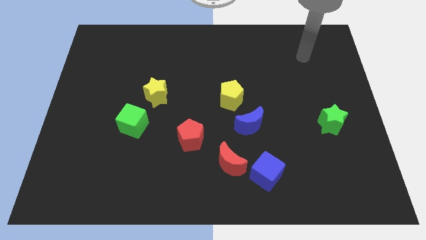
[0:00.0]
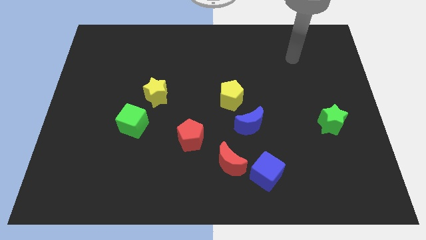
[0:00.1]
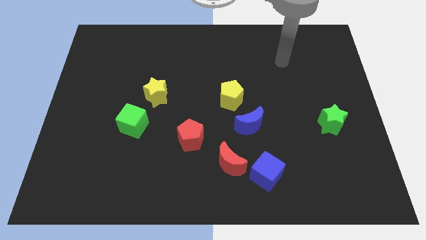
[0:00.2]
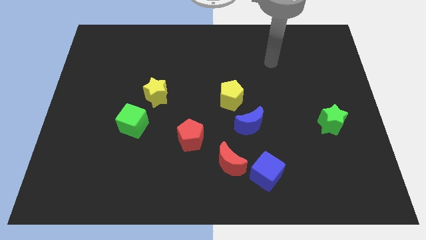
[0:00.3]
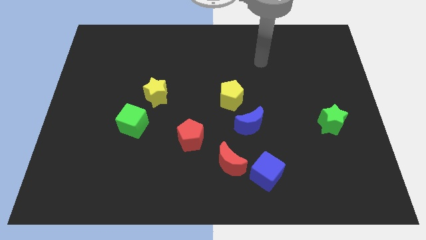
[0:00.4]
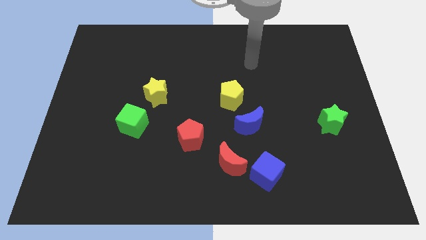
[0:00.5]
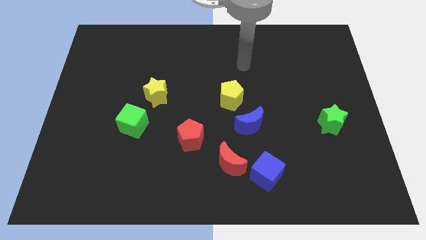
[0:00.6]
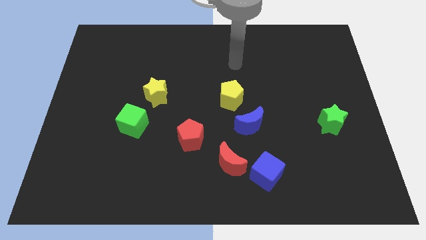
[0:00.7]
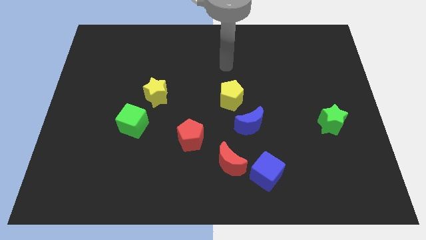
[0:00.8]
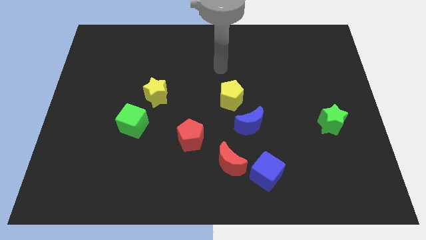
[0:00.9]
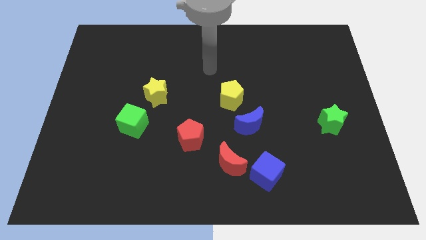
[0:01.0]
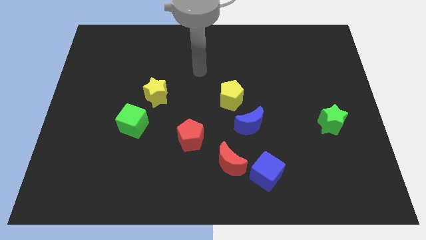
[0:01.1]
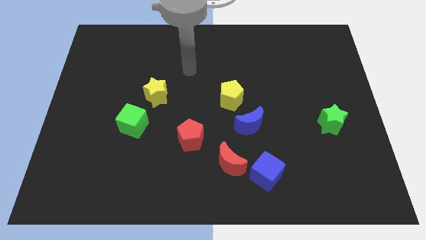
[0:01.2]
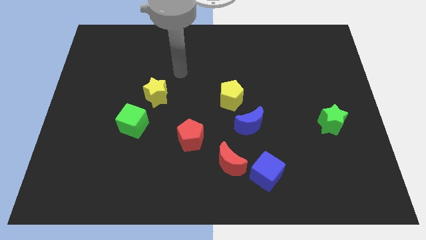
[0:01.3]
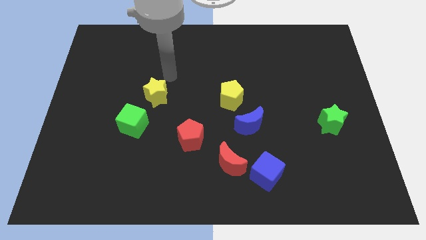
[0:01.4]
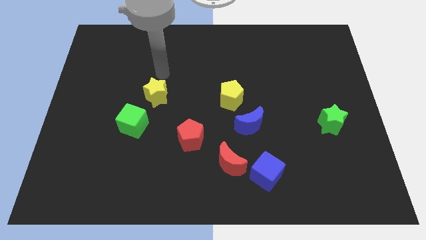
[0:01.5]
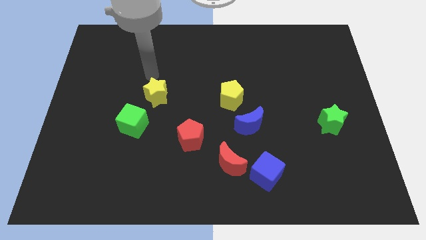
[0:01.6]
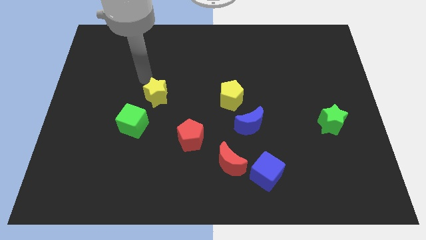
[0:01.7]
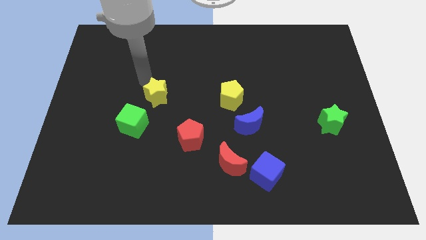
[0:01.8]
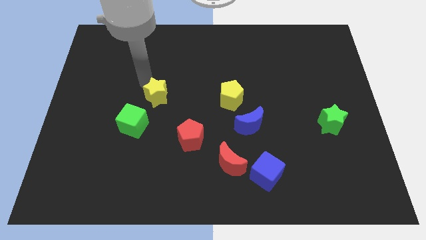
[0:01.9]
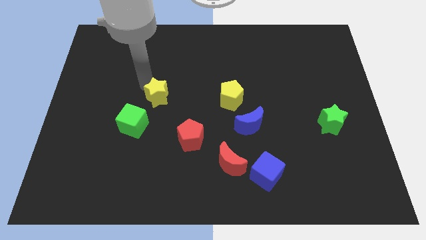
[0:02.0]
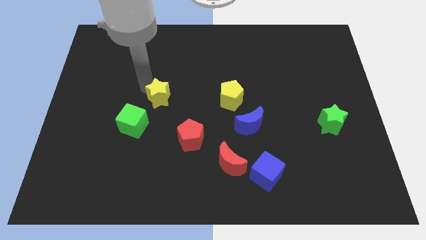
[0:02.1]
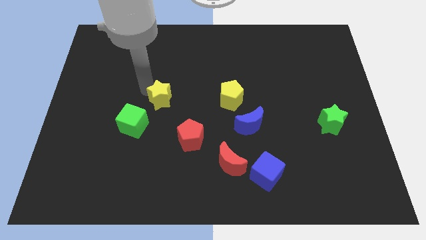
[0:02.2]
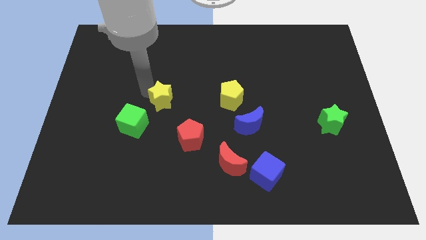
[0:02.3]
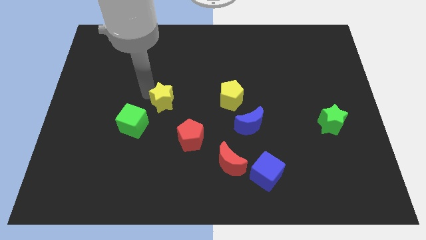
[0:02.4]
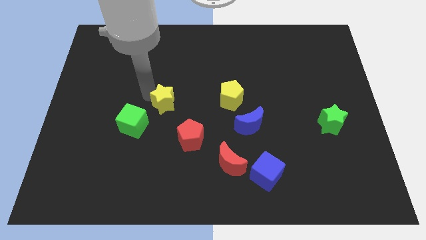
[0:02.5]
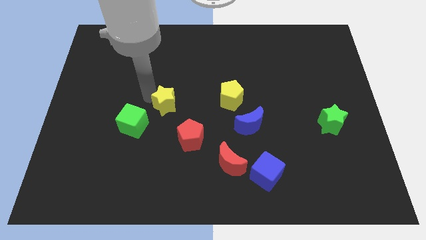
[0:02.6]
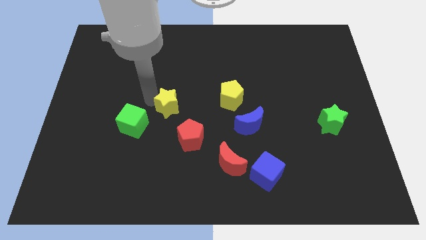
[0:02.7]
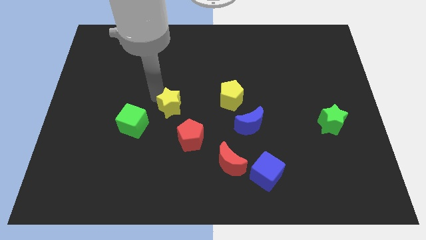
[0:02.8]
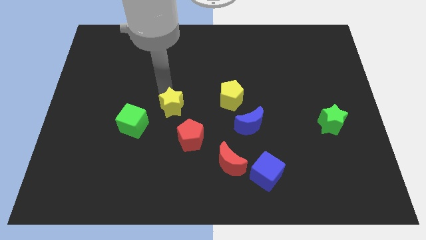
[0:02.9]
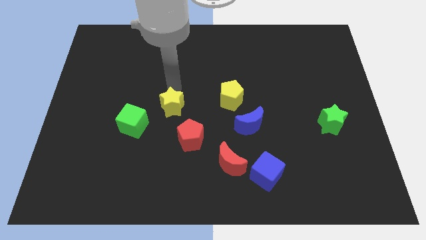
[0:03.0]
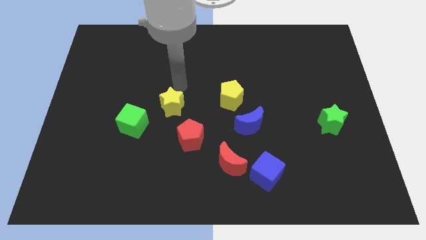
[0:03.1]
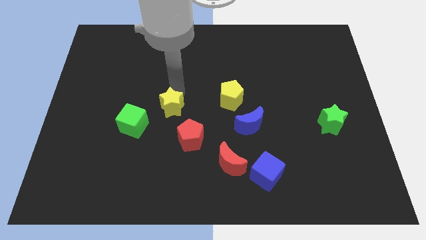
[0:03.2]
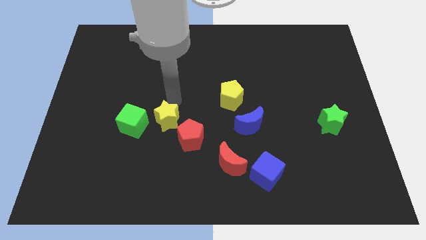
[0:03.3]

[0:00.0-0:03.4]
slide the yellow star downwards a little bit

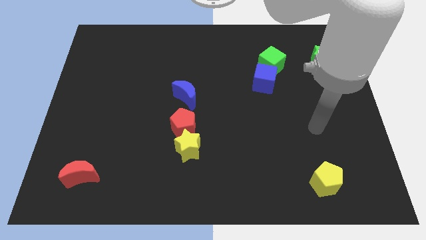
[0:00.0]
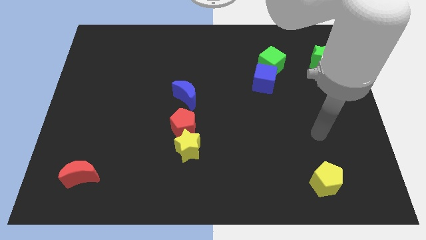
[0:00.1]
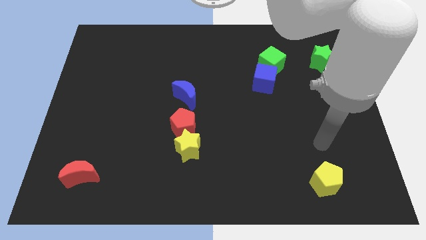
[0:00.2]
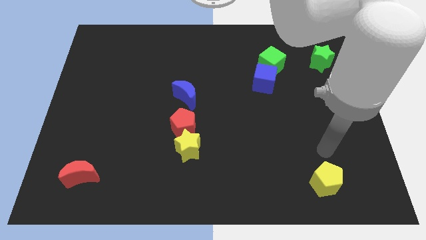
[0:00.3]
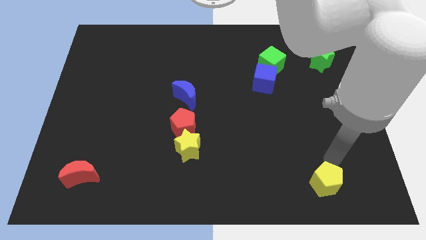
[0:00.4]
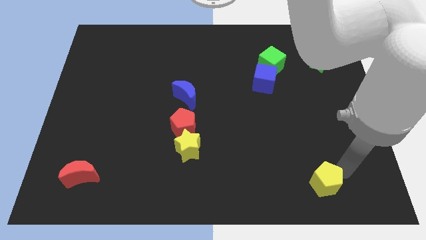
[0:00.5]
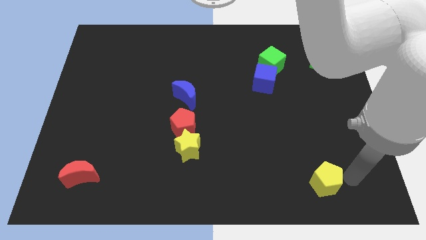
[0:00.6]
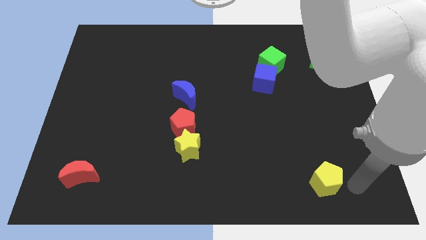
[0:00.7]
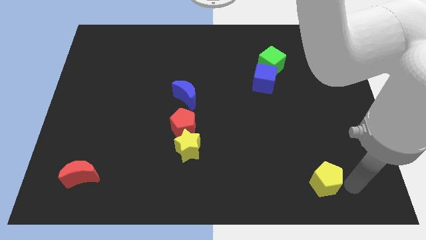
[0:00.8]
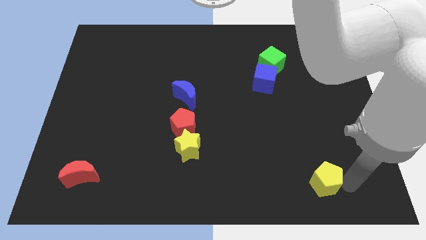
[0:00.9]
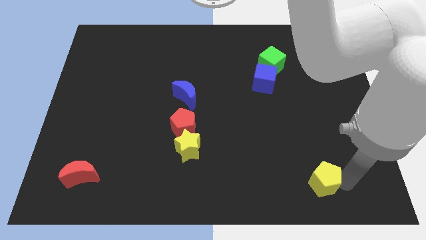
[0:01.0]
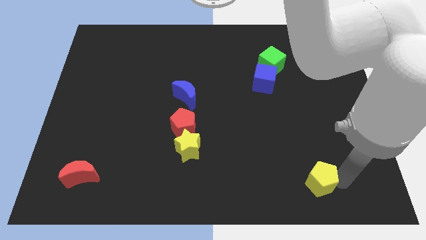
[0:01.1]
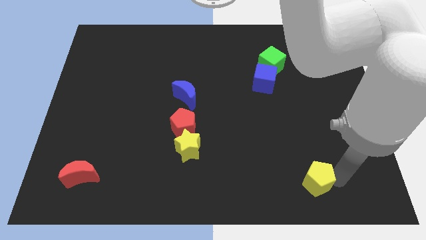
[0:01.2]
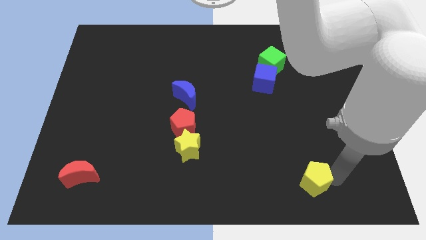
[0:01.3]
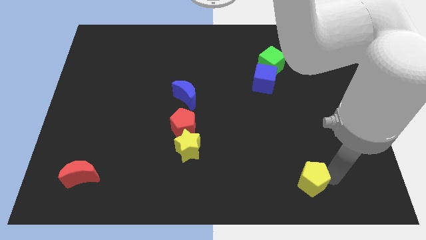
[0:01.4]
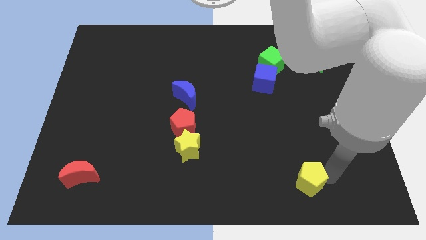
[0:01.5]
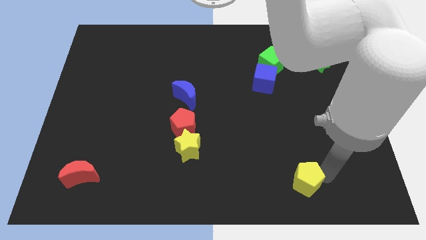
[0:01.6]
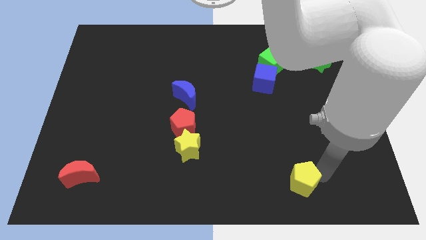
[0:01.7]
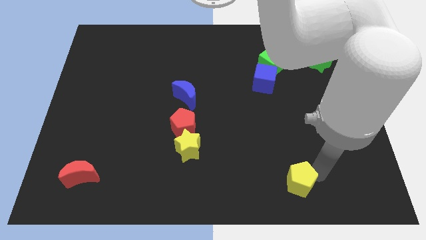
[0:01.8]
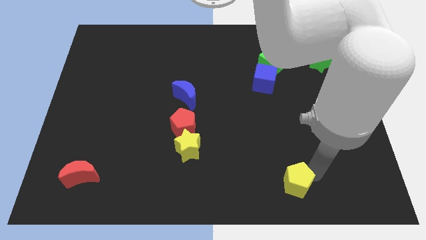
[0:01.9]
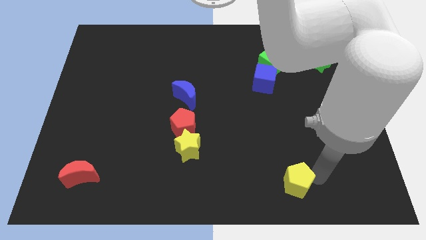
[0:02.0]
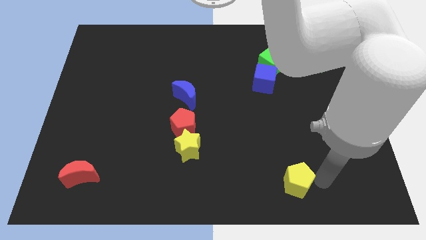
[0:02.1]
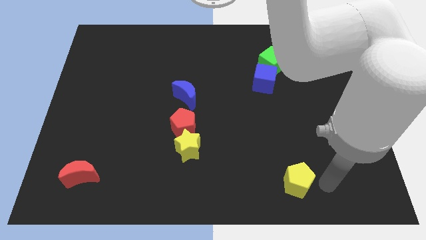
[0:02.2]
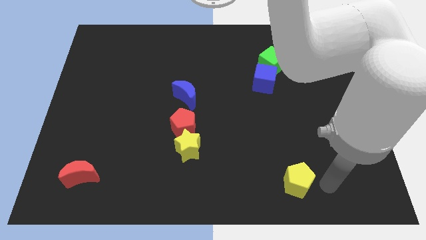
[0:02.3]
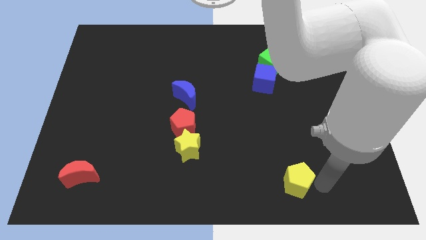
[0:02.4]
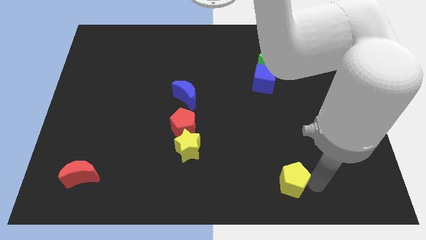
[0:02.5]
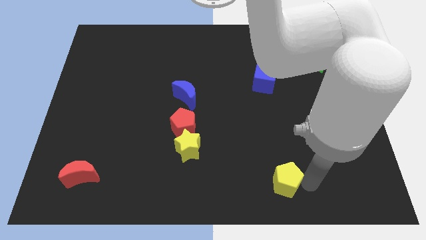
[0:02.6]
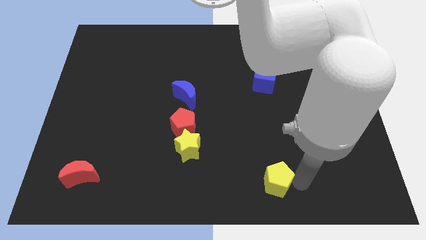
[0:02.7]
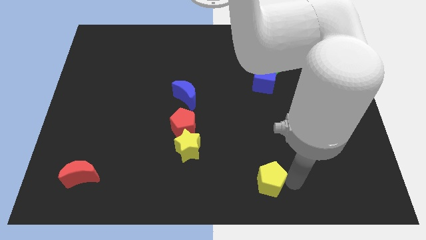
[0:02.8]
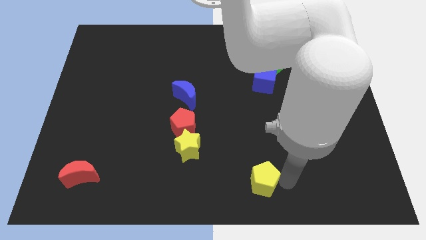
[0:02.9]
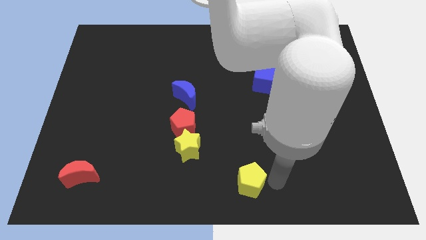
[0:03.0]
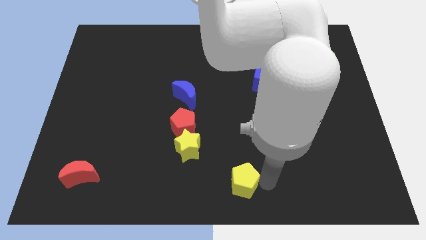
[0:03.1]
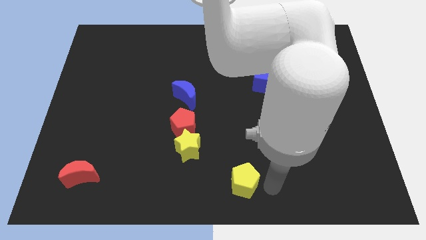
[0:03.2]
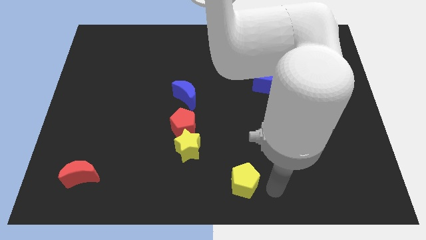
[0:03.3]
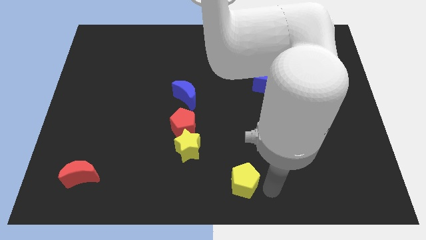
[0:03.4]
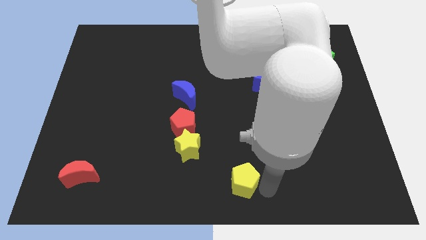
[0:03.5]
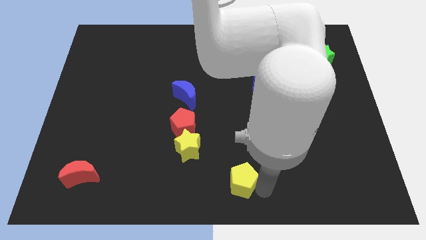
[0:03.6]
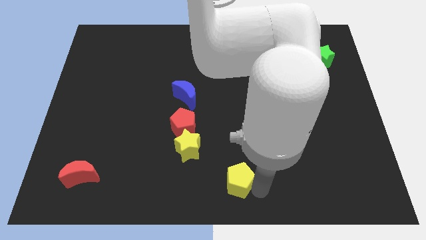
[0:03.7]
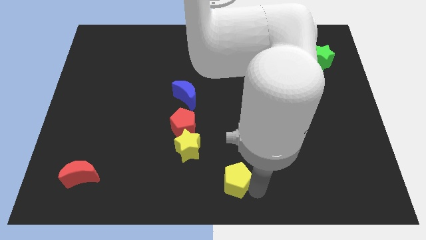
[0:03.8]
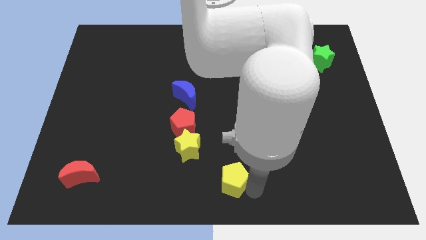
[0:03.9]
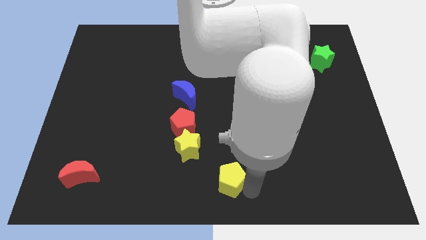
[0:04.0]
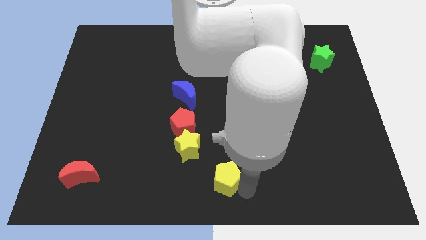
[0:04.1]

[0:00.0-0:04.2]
slide the yellow pentagon left

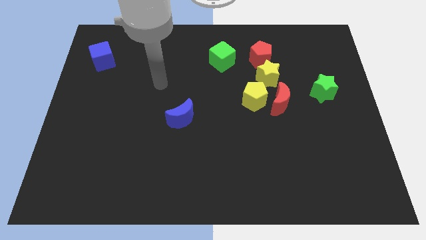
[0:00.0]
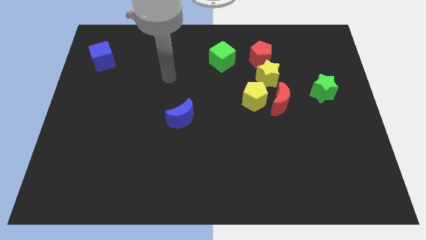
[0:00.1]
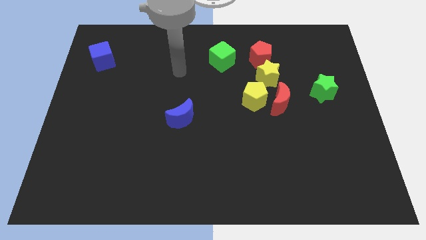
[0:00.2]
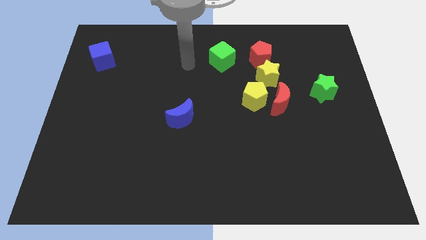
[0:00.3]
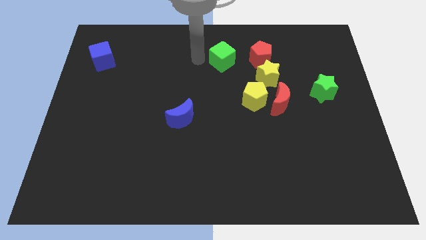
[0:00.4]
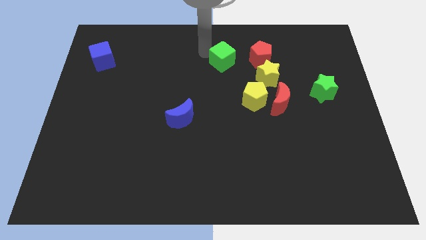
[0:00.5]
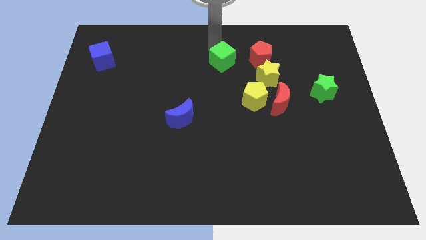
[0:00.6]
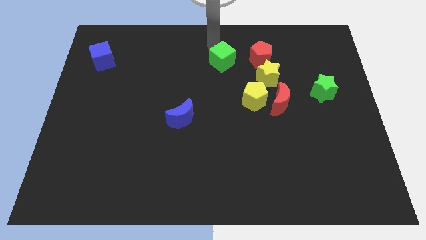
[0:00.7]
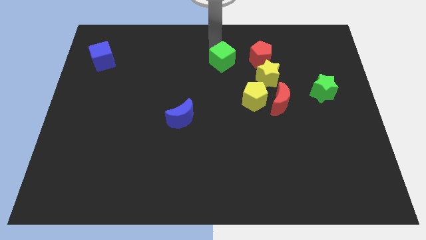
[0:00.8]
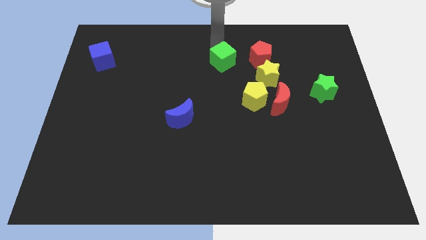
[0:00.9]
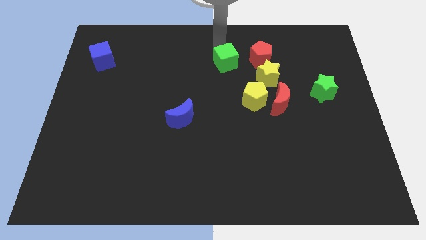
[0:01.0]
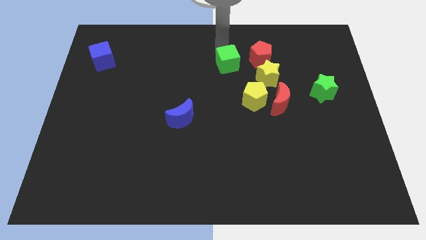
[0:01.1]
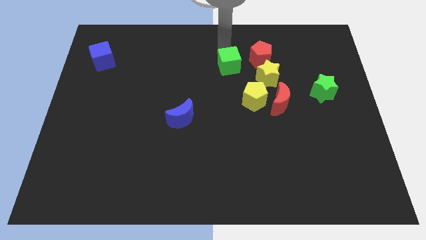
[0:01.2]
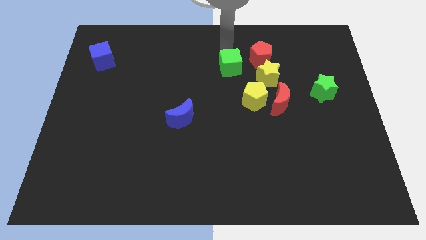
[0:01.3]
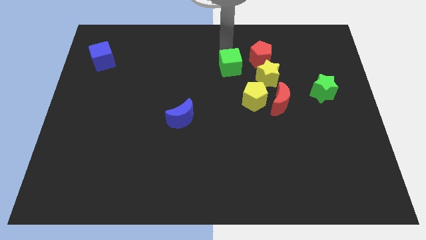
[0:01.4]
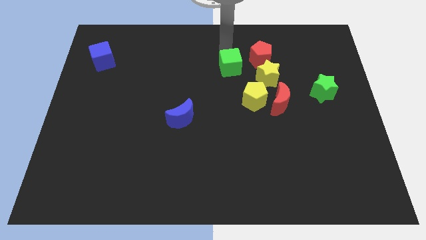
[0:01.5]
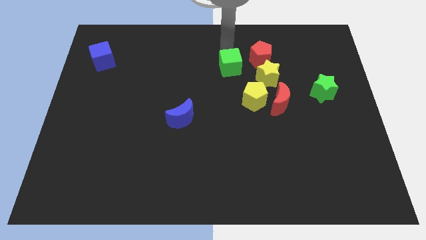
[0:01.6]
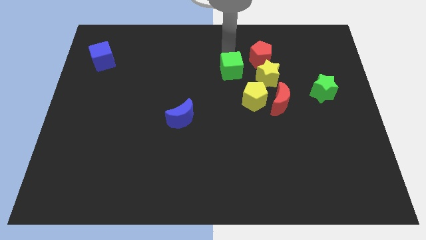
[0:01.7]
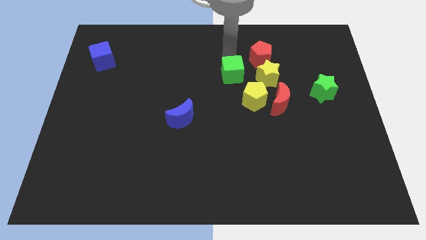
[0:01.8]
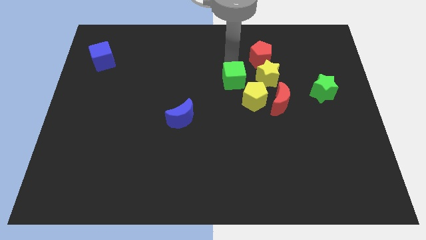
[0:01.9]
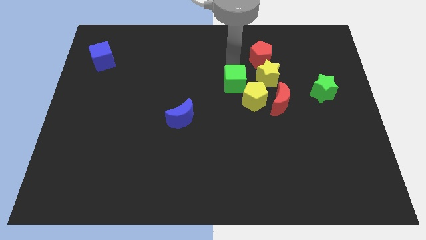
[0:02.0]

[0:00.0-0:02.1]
move the green cube slightly down
